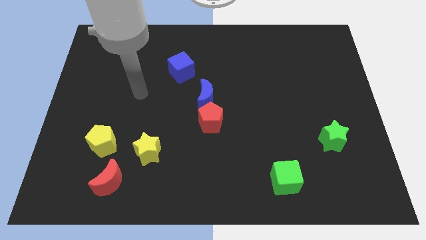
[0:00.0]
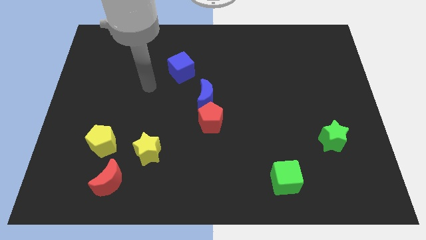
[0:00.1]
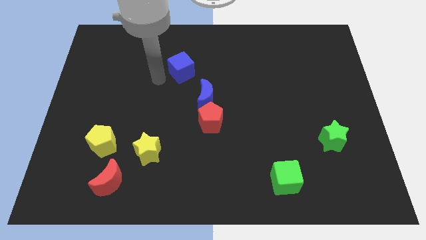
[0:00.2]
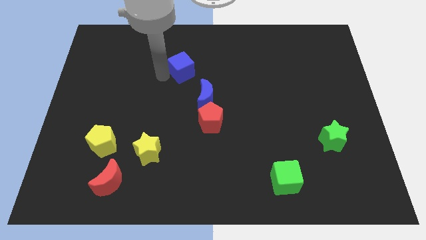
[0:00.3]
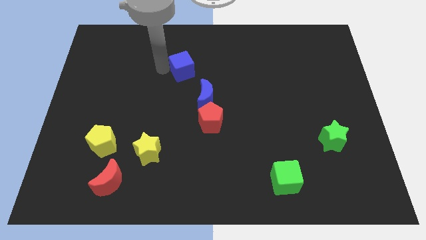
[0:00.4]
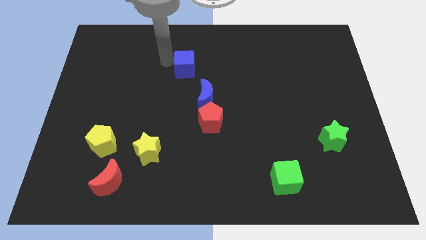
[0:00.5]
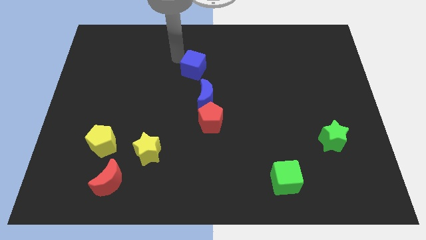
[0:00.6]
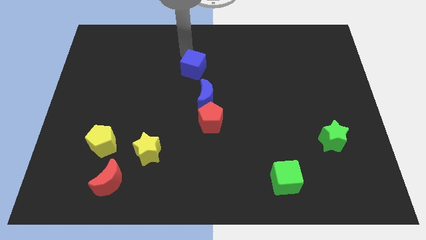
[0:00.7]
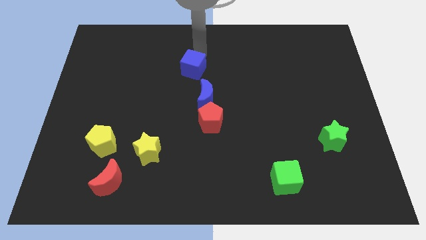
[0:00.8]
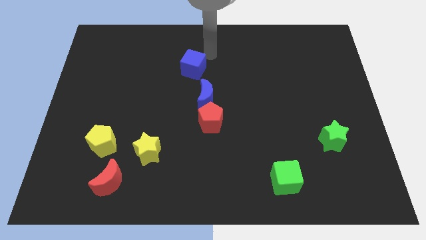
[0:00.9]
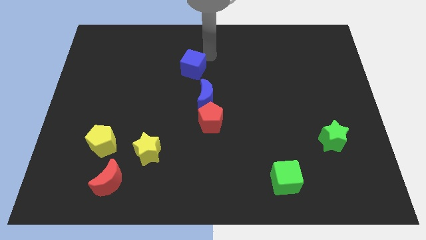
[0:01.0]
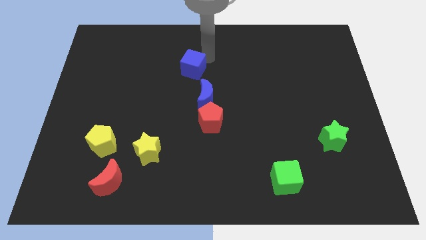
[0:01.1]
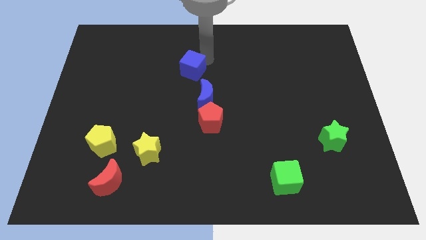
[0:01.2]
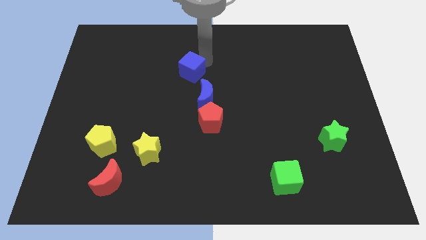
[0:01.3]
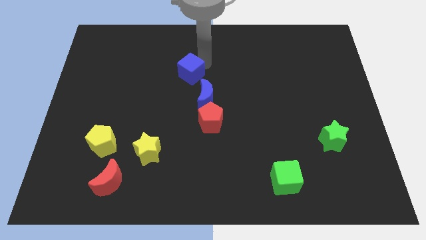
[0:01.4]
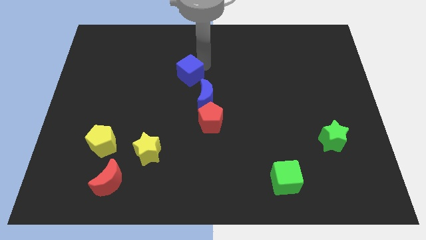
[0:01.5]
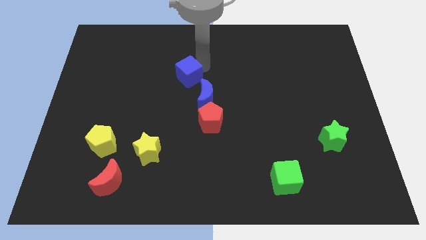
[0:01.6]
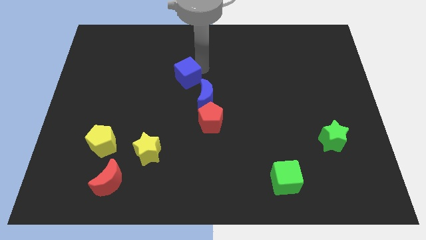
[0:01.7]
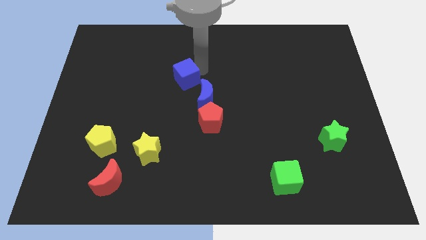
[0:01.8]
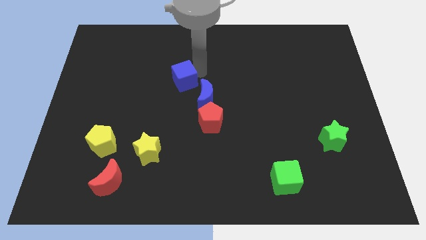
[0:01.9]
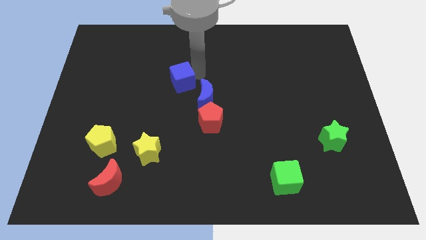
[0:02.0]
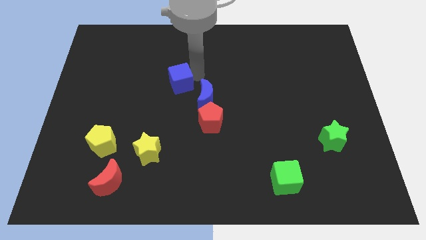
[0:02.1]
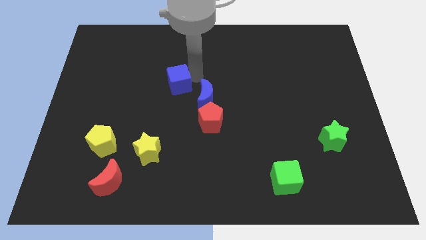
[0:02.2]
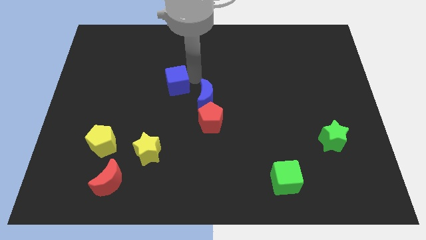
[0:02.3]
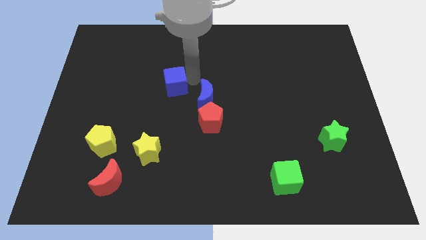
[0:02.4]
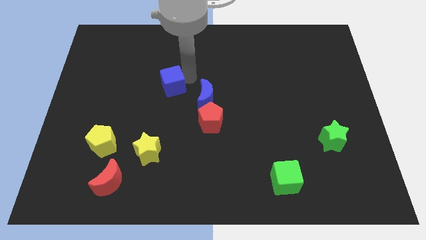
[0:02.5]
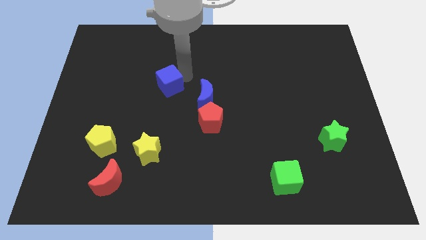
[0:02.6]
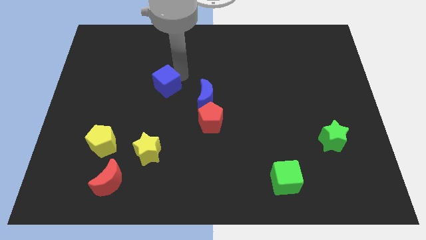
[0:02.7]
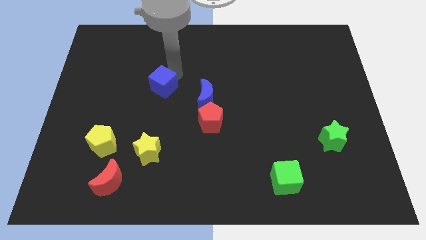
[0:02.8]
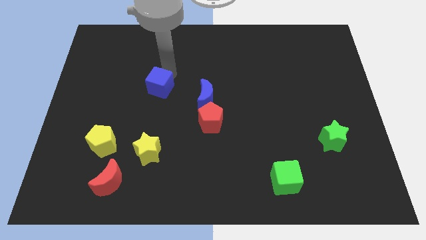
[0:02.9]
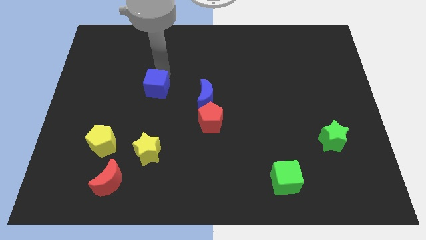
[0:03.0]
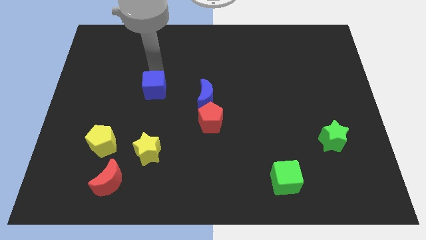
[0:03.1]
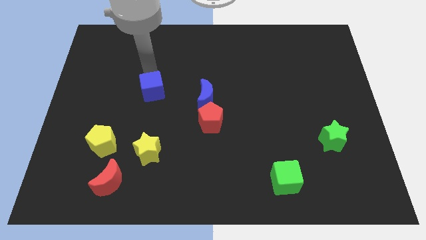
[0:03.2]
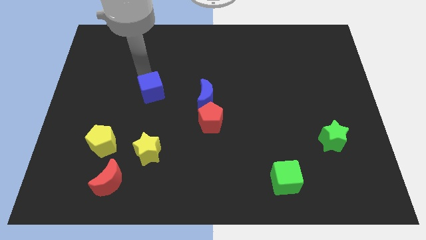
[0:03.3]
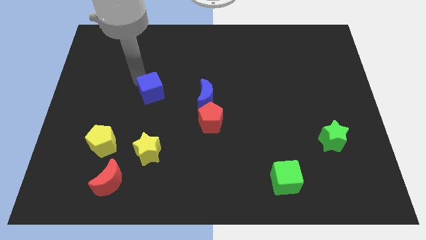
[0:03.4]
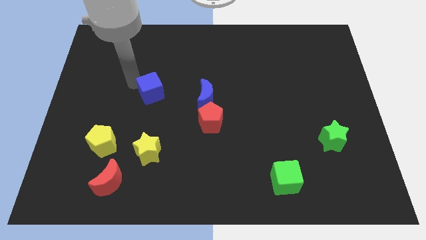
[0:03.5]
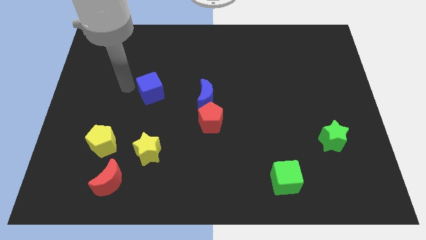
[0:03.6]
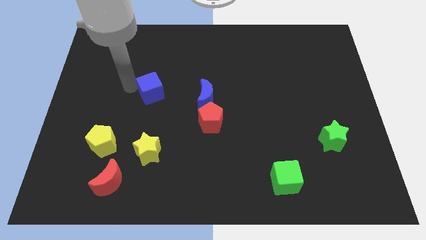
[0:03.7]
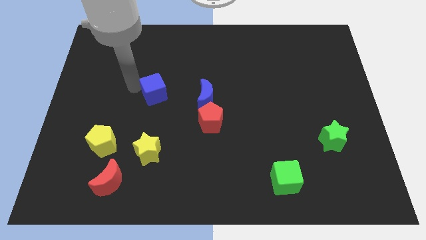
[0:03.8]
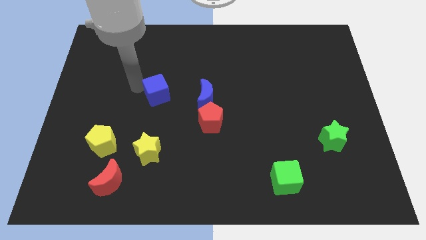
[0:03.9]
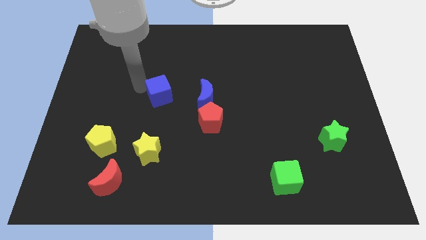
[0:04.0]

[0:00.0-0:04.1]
slightly slide the blue cube downwards

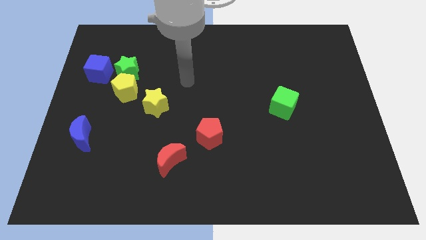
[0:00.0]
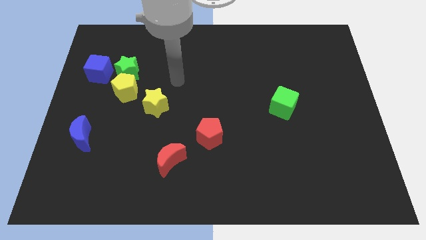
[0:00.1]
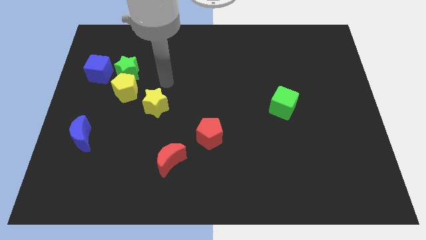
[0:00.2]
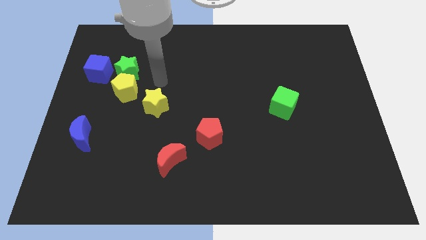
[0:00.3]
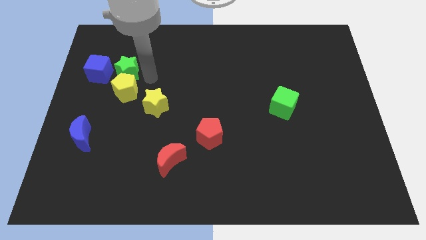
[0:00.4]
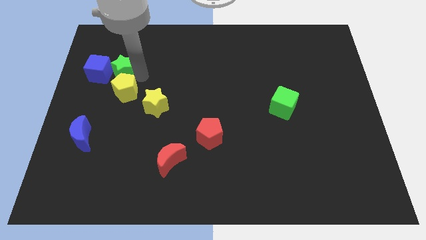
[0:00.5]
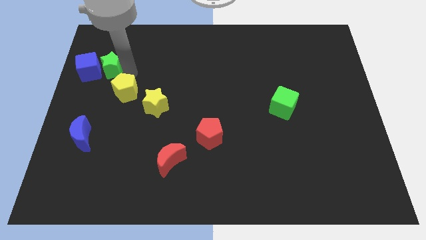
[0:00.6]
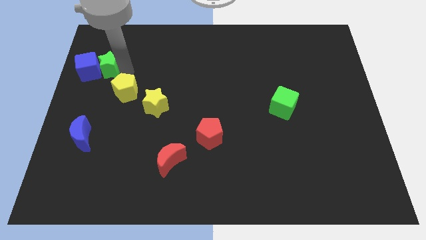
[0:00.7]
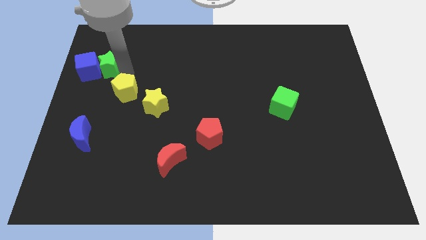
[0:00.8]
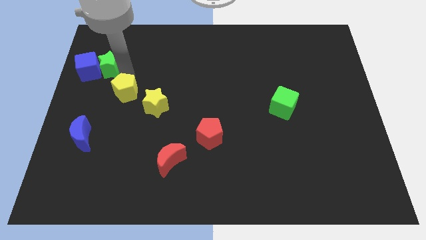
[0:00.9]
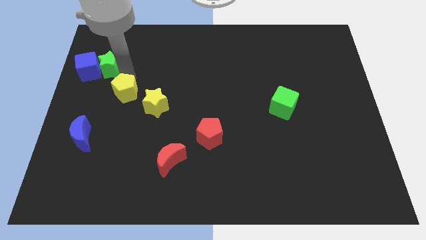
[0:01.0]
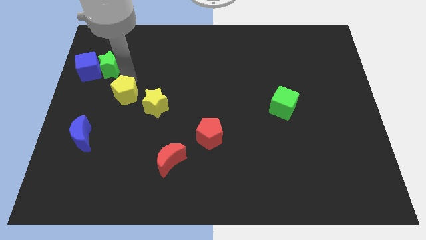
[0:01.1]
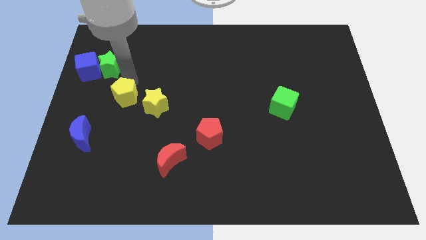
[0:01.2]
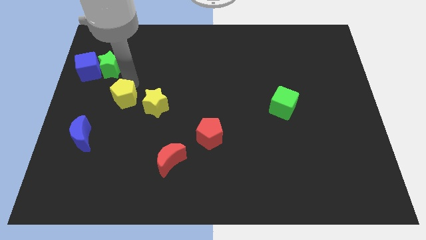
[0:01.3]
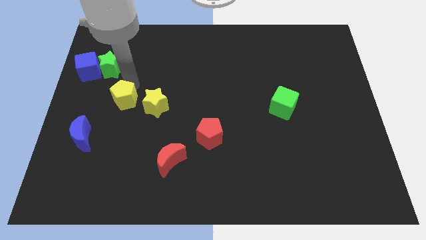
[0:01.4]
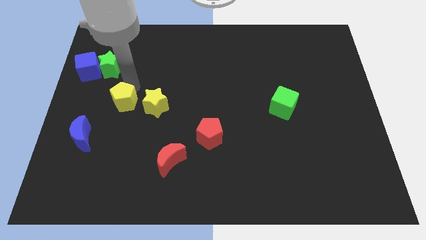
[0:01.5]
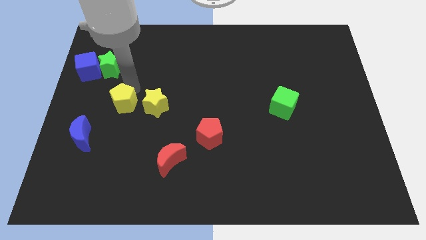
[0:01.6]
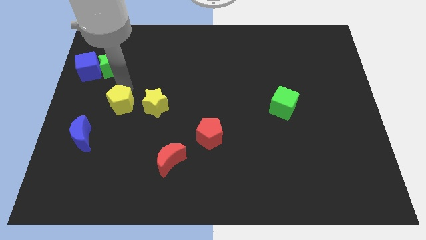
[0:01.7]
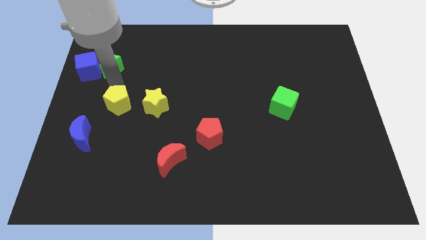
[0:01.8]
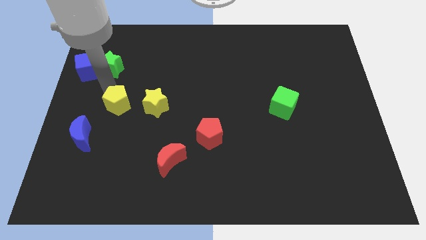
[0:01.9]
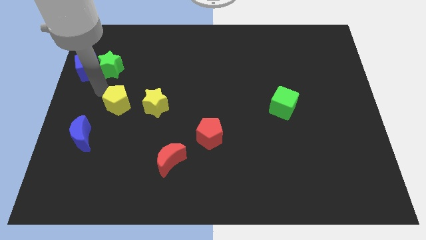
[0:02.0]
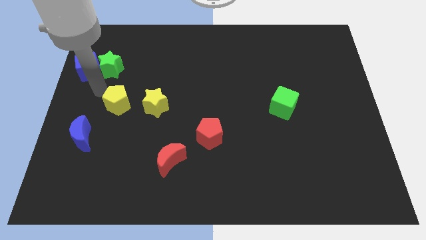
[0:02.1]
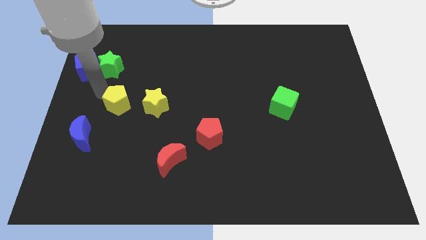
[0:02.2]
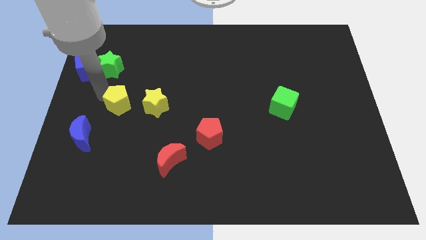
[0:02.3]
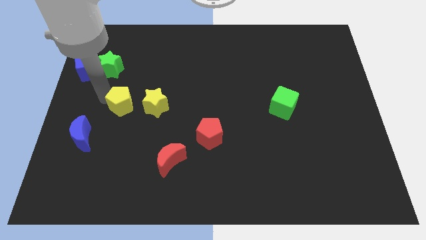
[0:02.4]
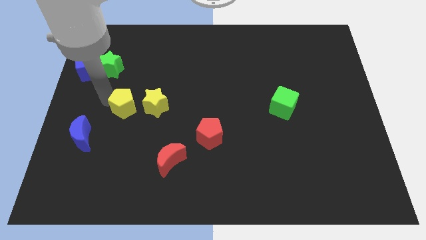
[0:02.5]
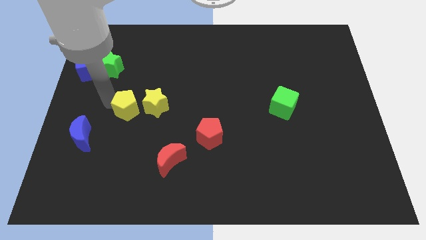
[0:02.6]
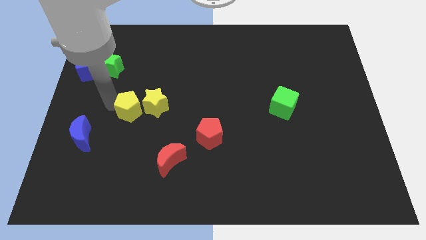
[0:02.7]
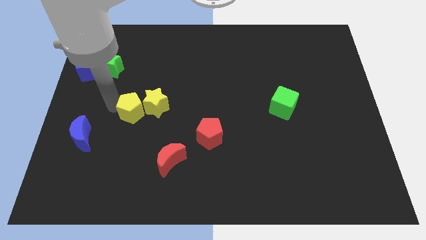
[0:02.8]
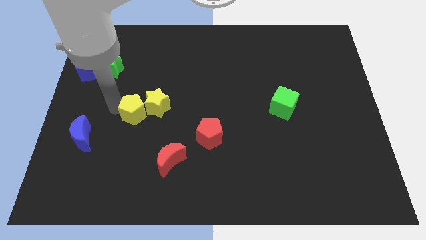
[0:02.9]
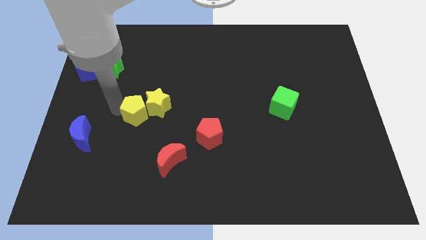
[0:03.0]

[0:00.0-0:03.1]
push the yellow pentagon down and then right slightly

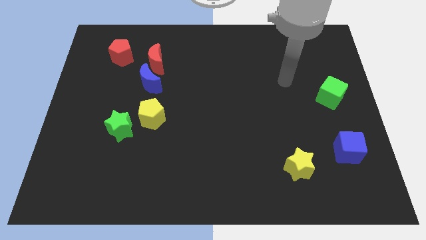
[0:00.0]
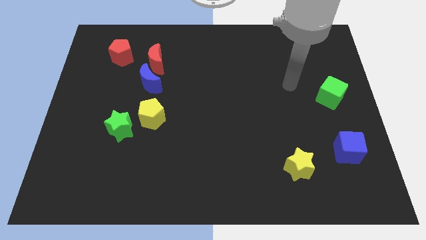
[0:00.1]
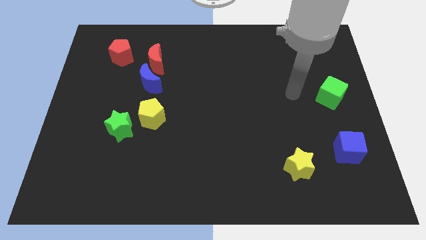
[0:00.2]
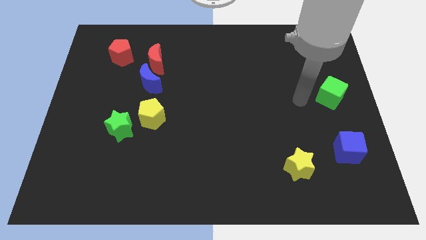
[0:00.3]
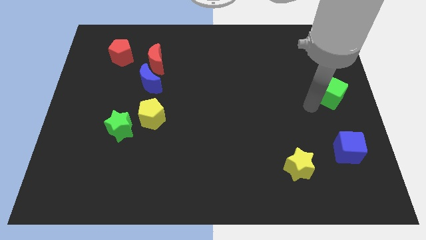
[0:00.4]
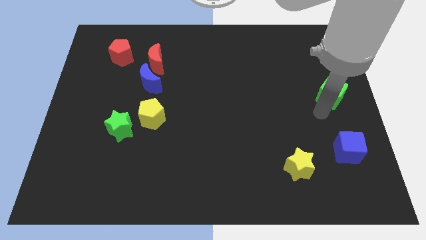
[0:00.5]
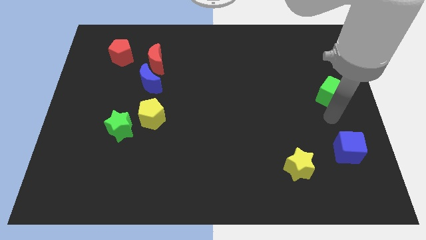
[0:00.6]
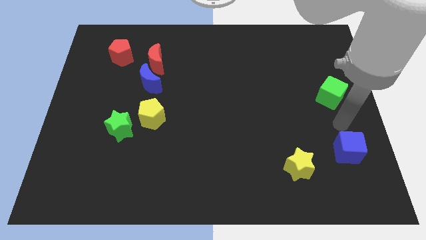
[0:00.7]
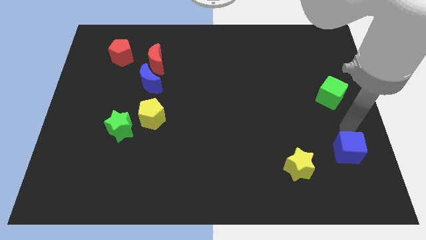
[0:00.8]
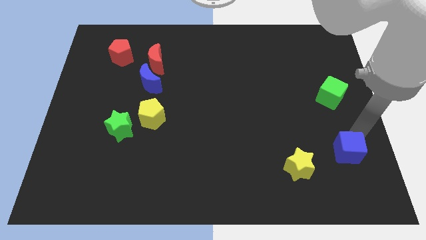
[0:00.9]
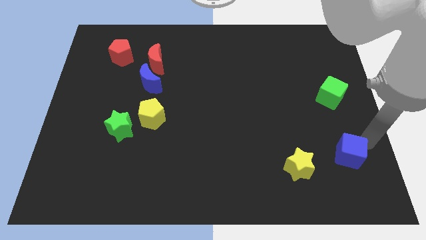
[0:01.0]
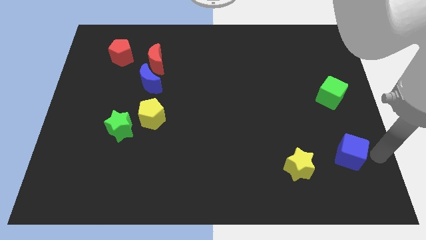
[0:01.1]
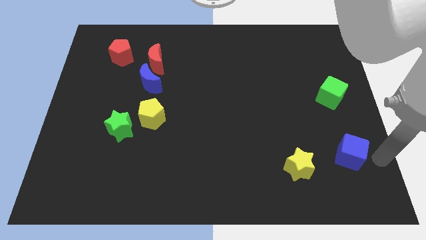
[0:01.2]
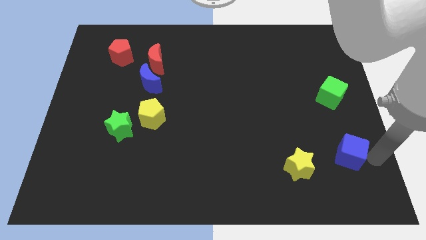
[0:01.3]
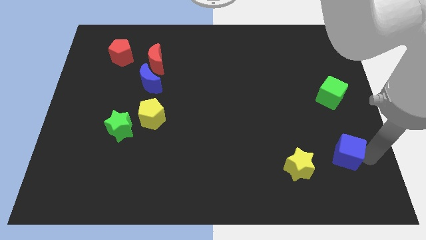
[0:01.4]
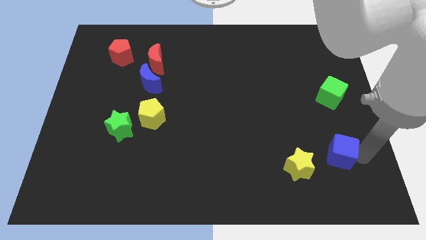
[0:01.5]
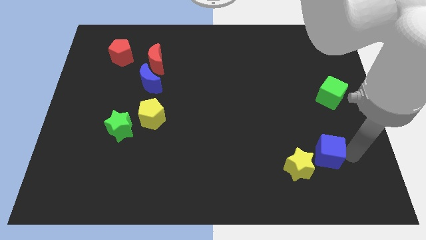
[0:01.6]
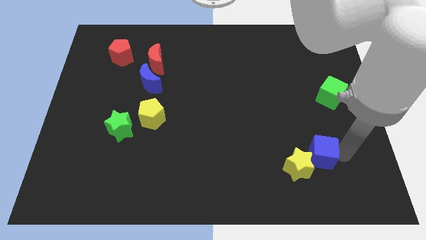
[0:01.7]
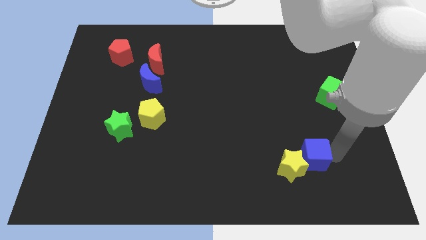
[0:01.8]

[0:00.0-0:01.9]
slightly slide the blue cube to the left
